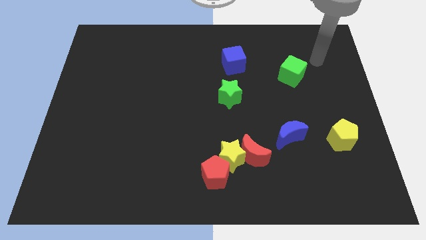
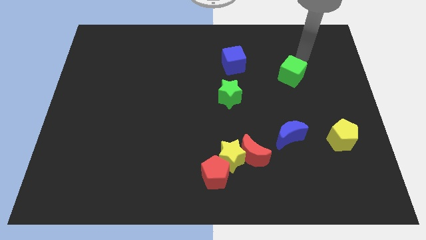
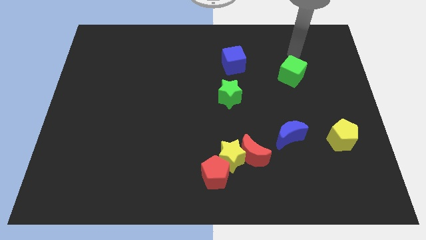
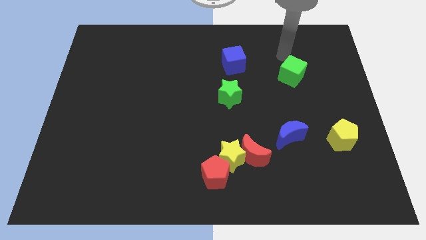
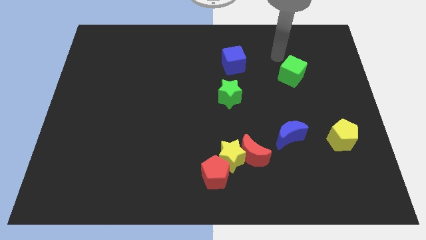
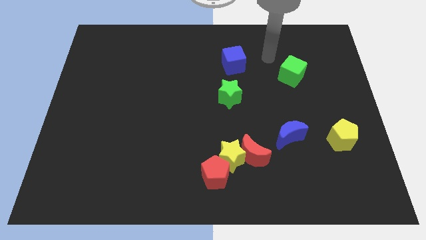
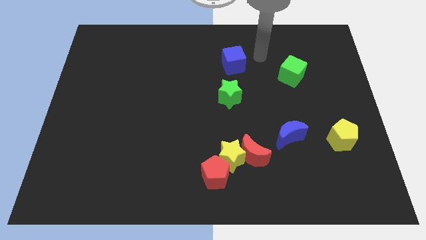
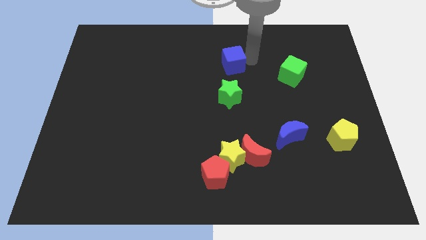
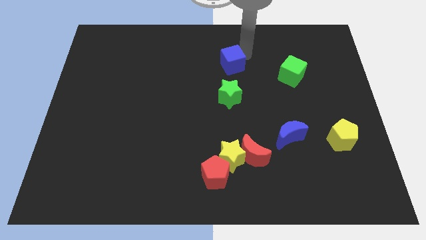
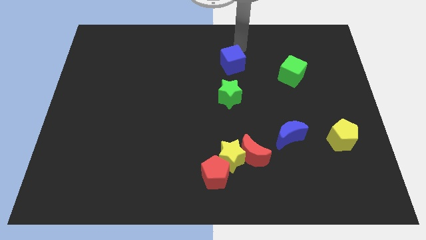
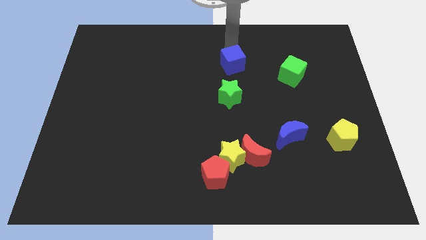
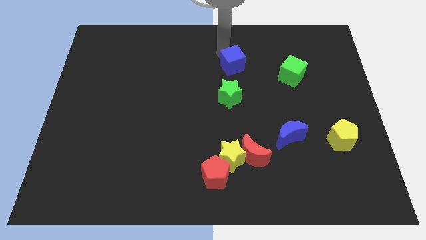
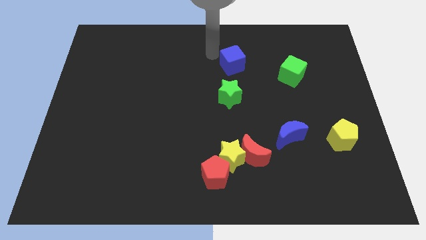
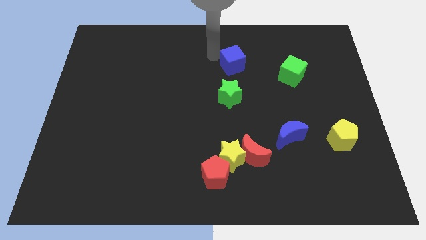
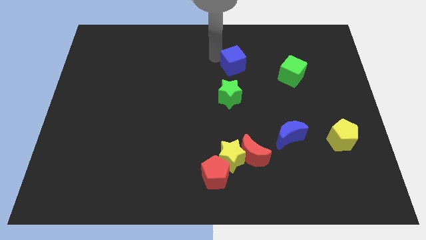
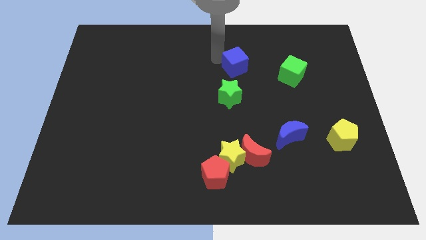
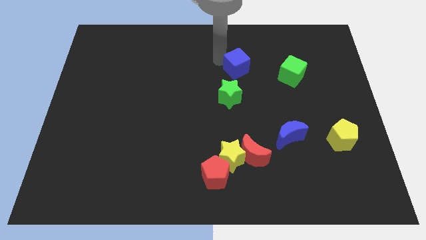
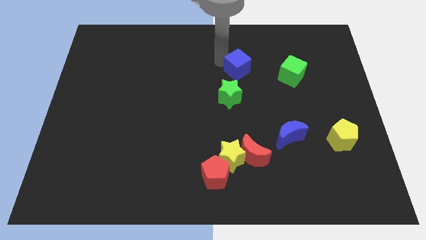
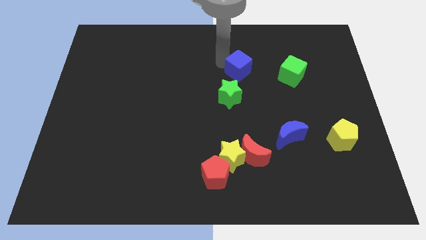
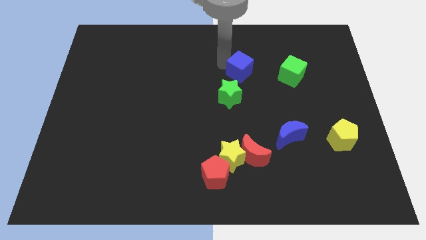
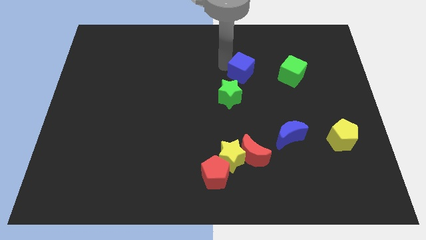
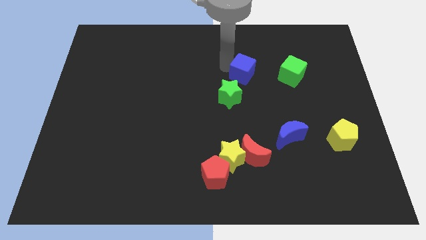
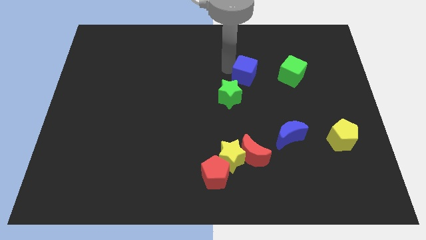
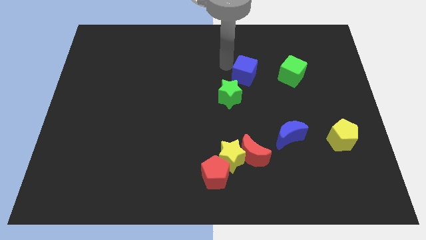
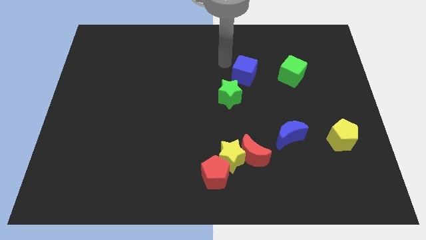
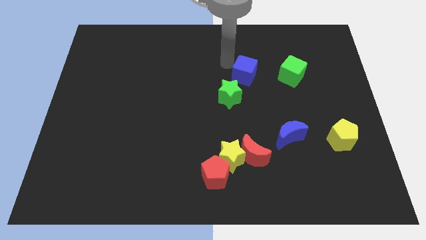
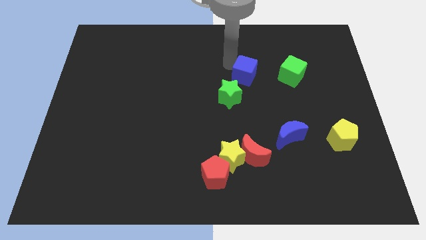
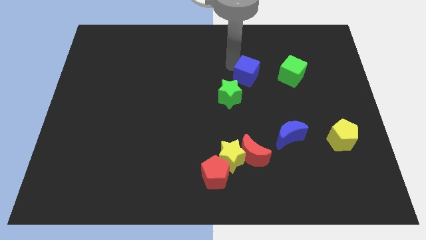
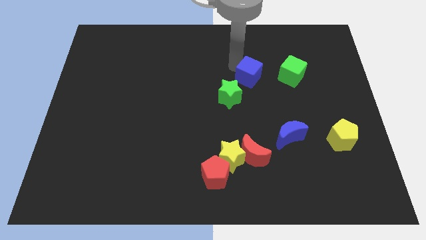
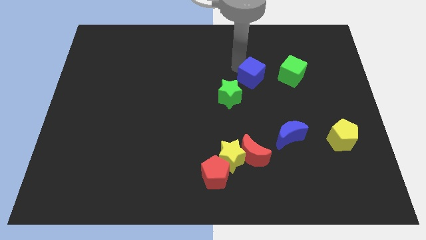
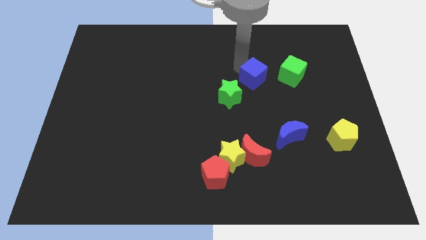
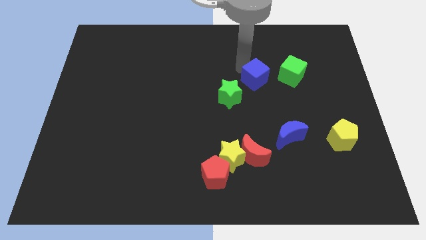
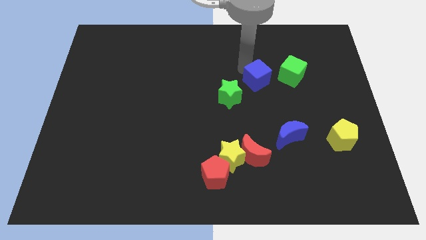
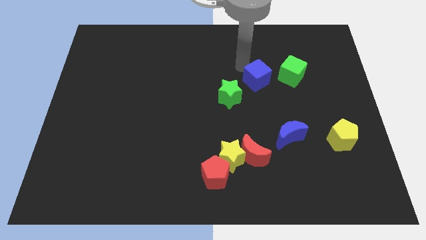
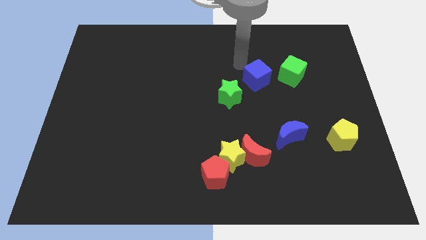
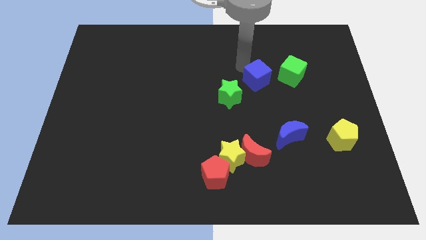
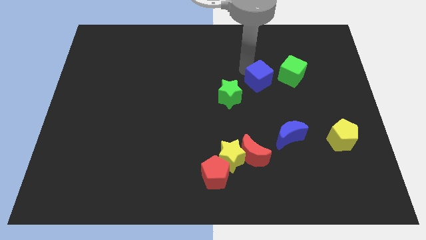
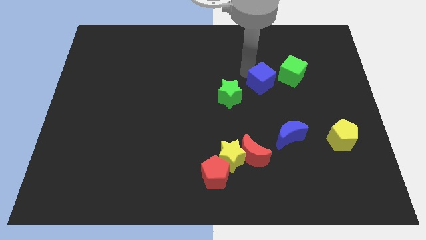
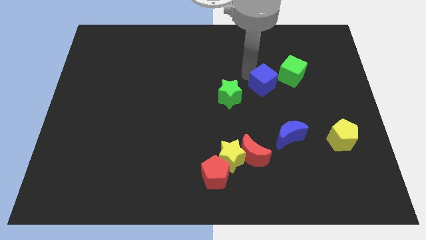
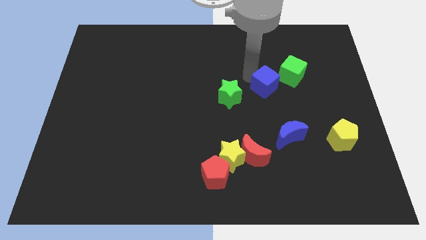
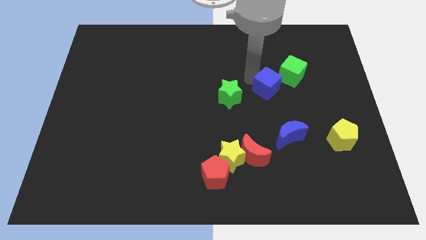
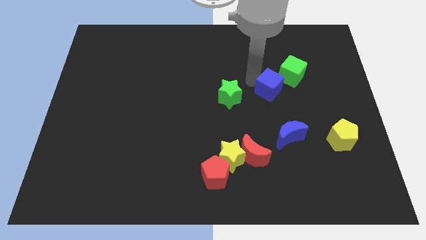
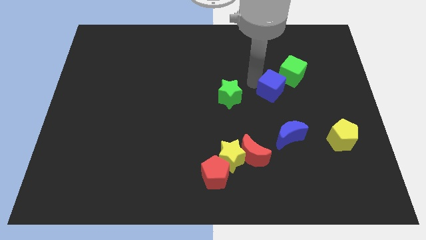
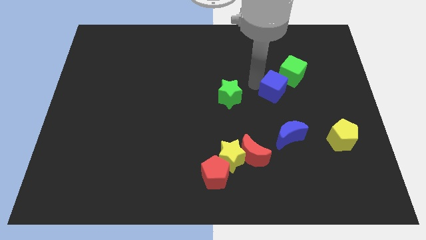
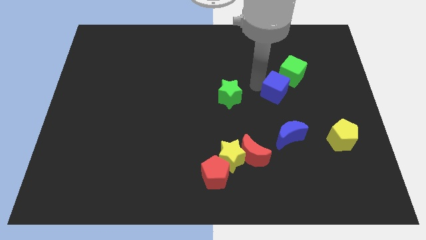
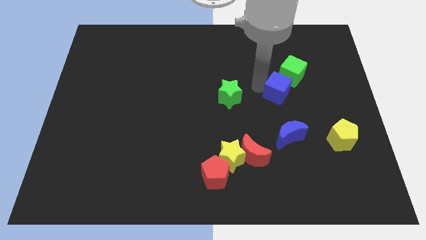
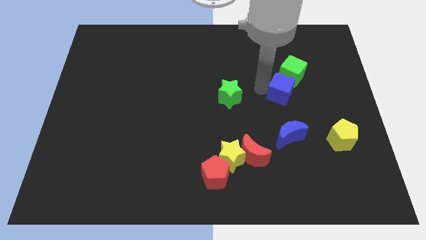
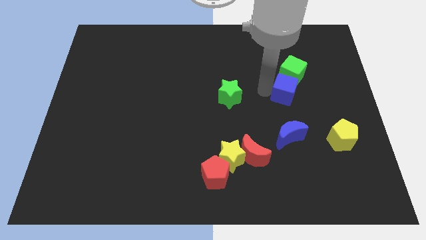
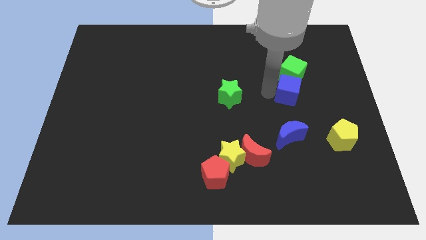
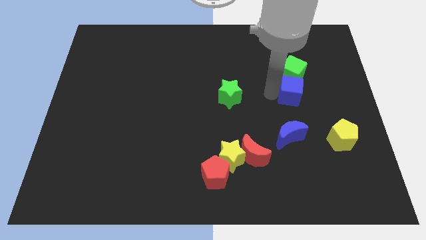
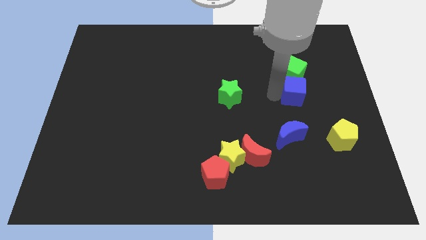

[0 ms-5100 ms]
push the blue cube to the bottom right side of the green cube

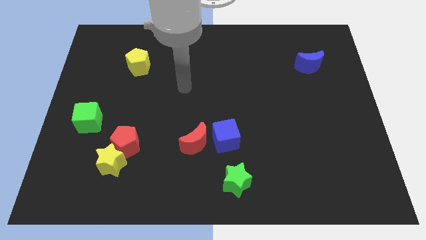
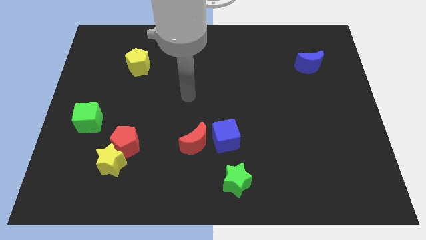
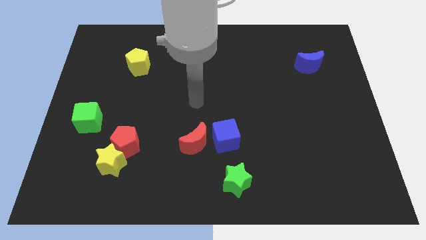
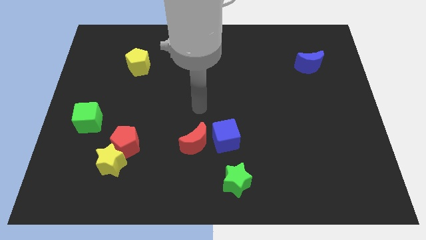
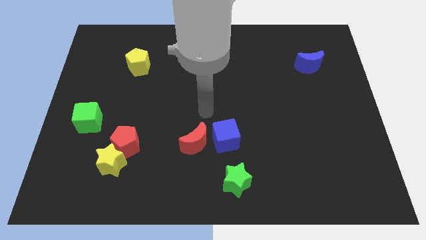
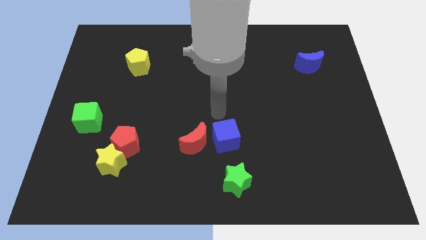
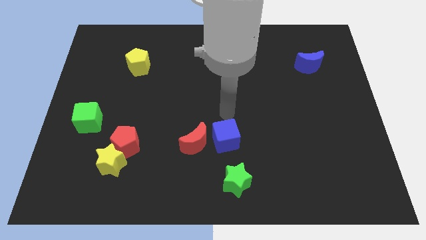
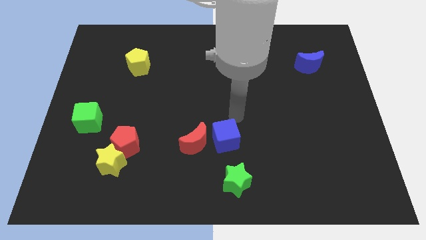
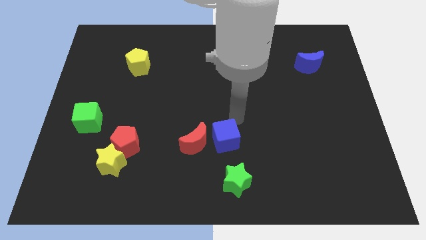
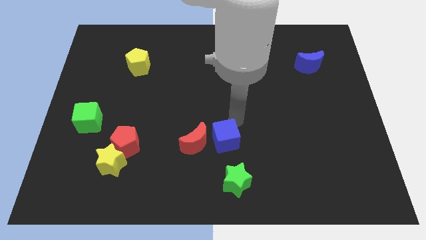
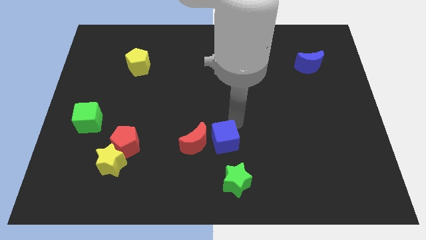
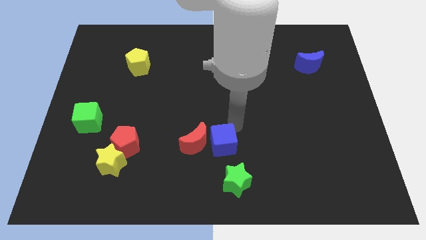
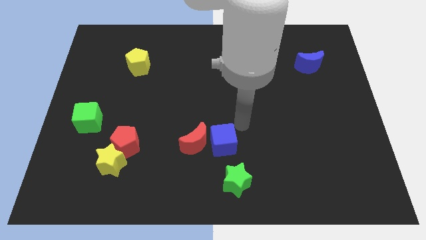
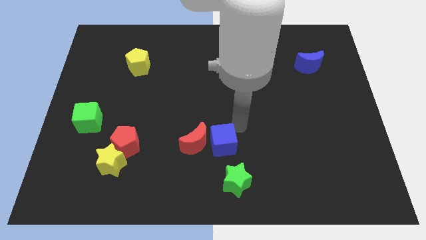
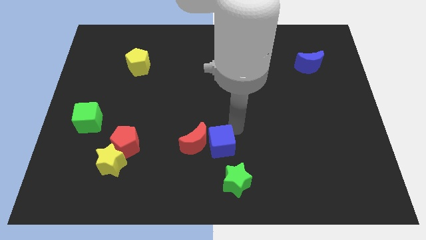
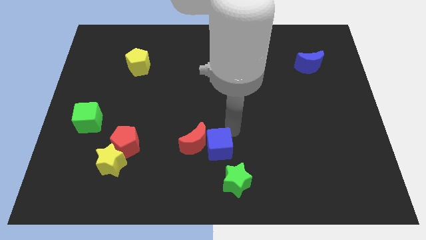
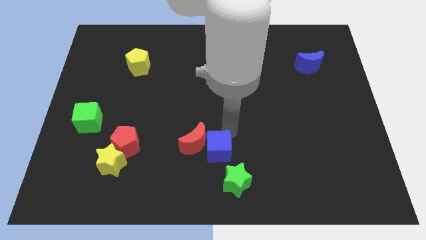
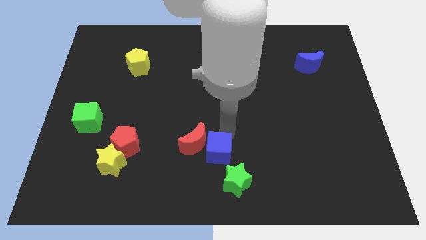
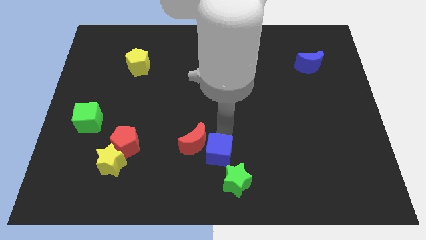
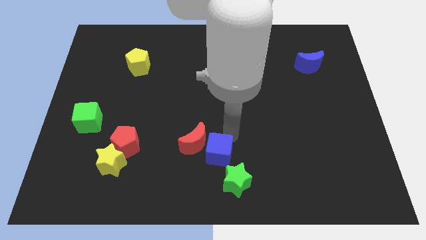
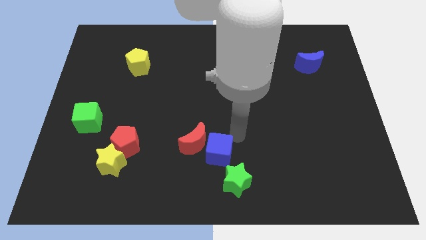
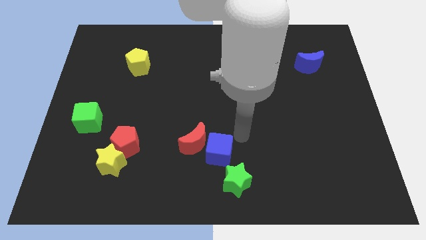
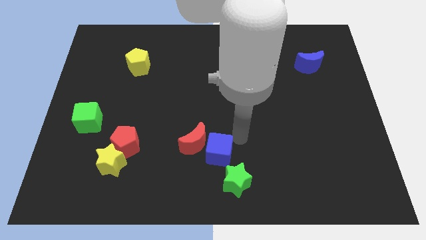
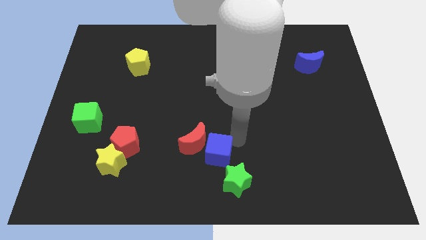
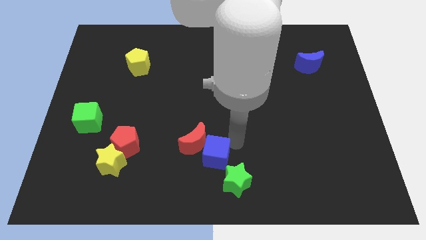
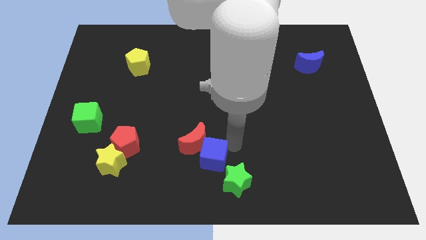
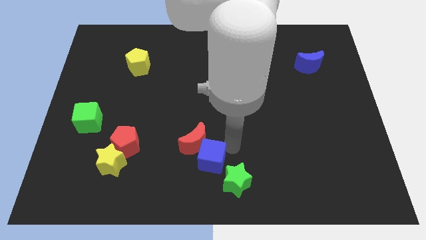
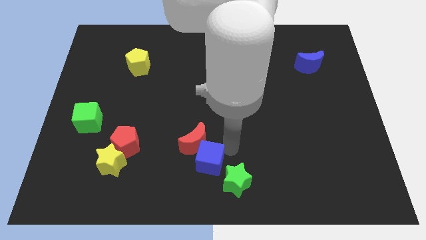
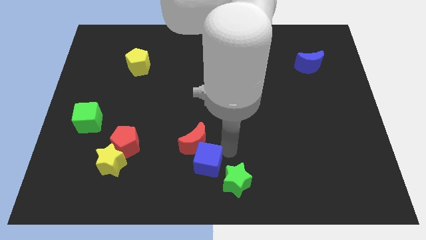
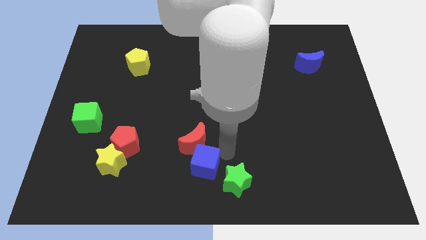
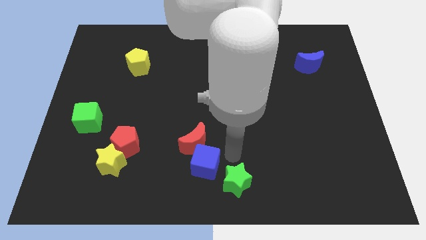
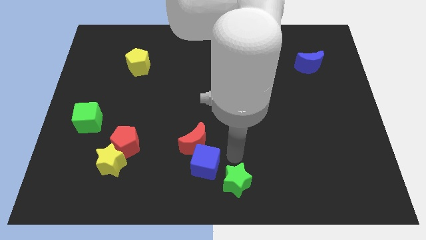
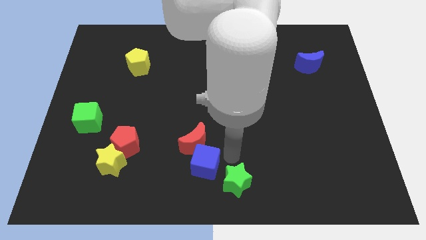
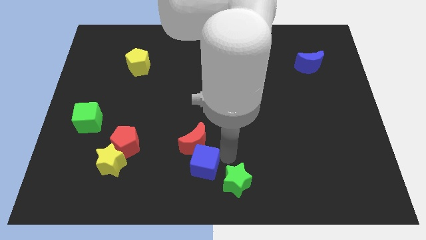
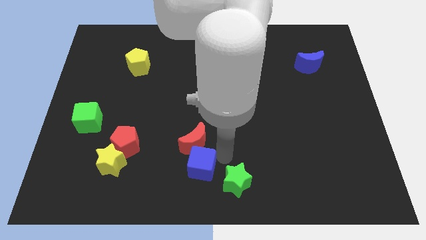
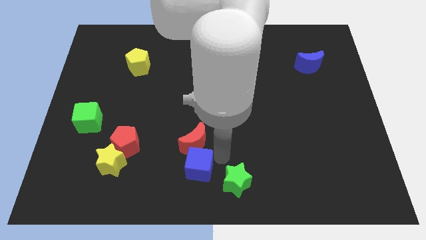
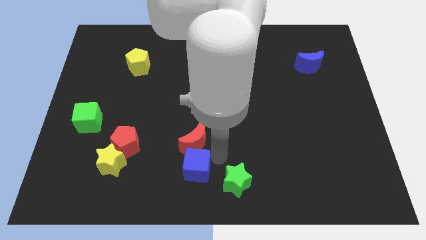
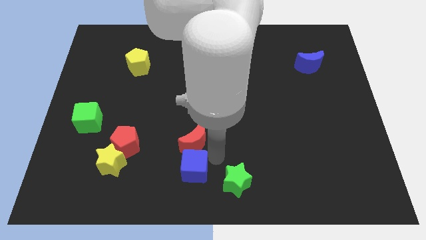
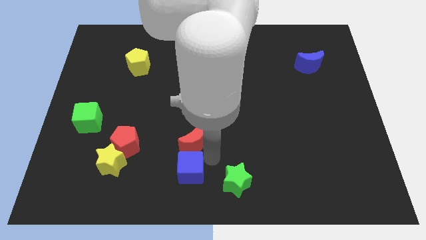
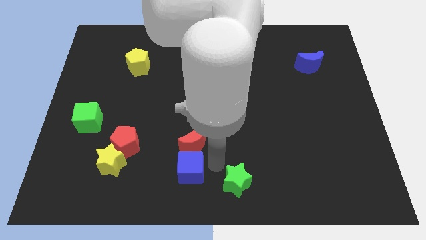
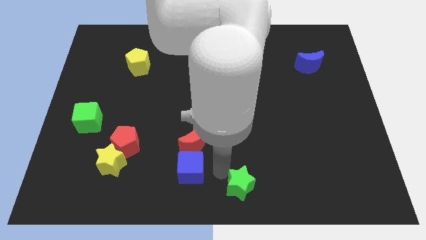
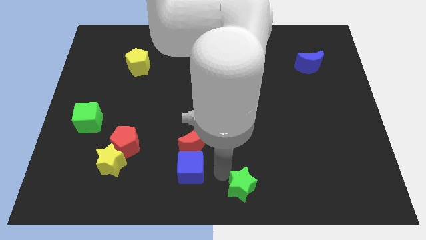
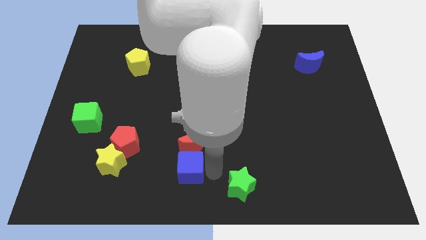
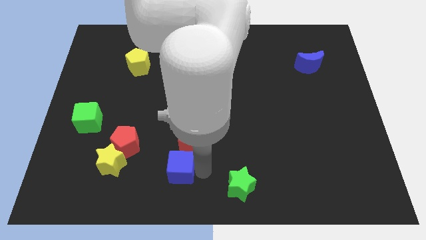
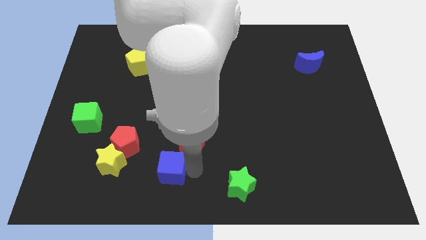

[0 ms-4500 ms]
move the blue cube diagonally down and to the right of the red pentagon
